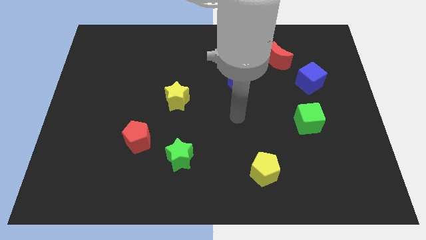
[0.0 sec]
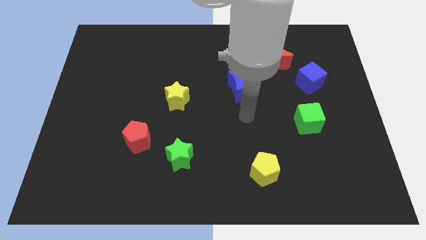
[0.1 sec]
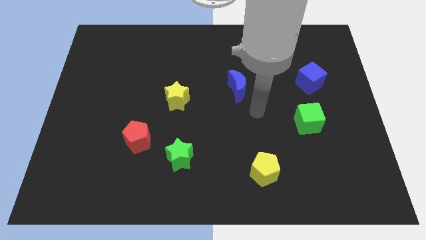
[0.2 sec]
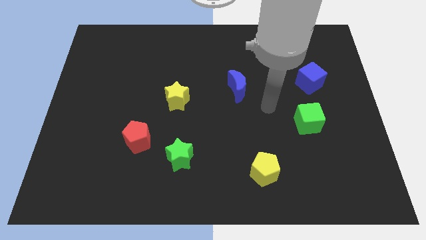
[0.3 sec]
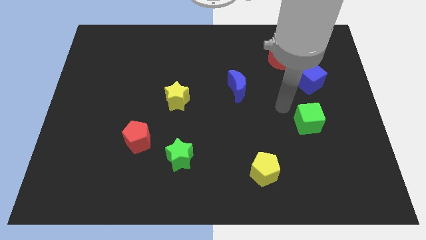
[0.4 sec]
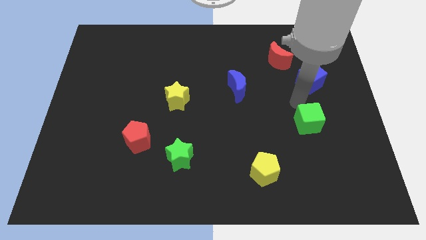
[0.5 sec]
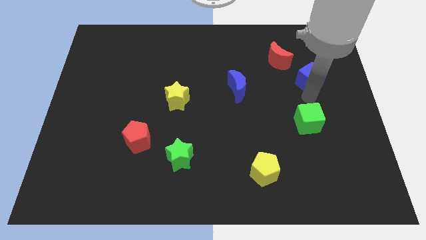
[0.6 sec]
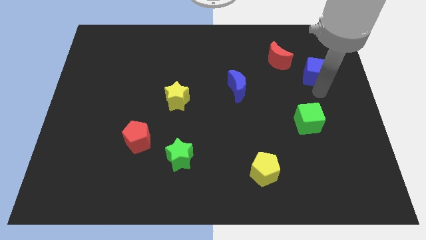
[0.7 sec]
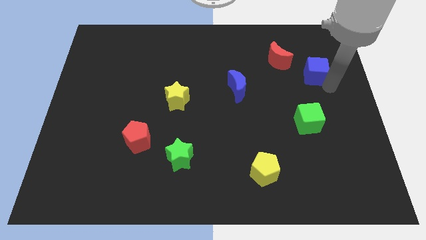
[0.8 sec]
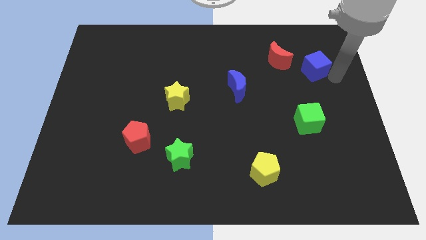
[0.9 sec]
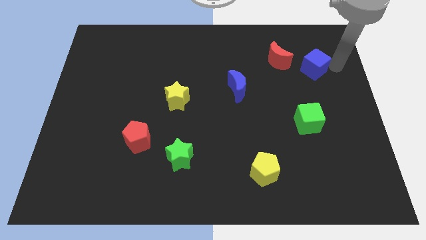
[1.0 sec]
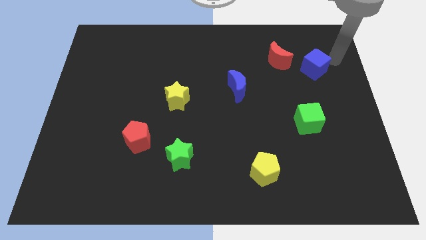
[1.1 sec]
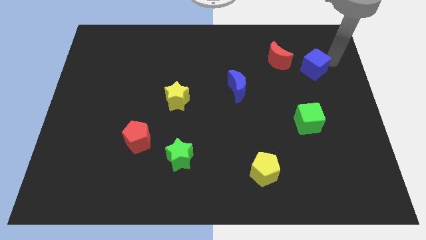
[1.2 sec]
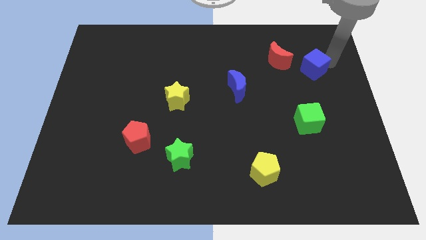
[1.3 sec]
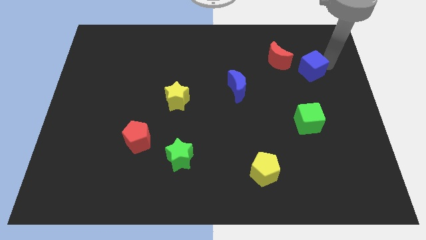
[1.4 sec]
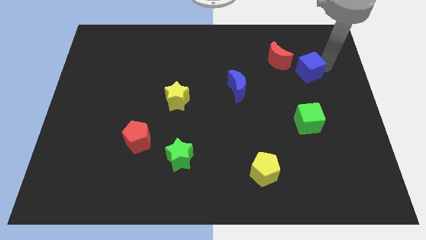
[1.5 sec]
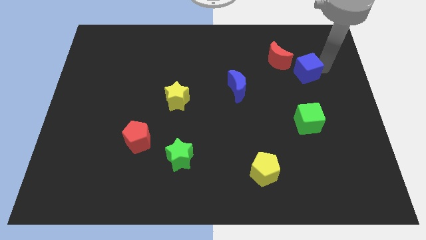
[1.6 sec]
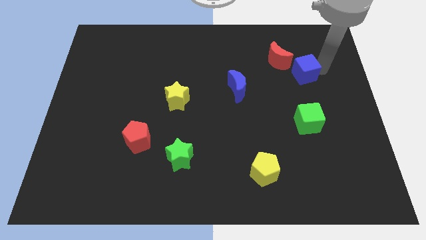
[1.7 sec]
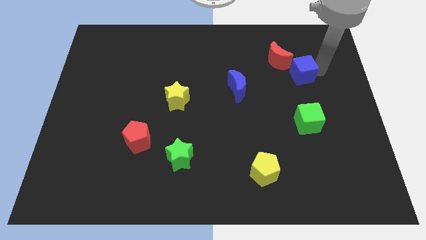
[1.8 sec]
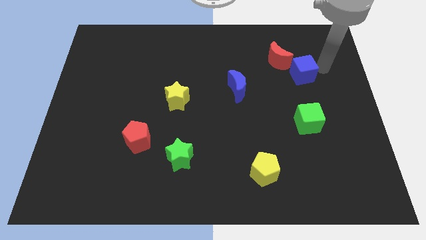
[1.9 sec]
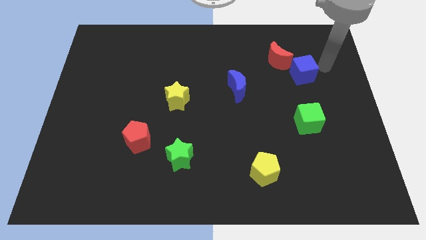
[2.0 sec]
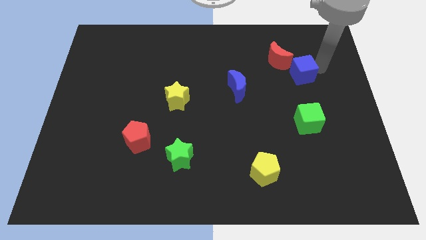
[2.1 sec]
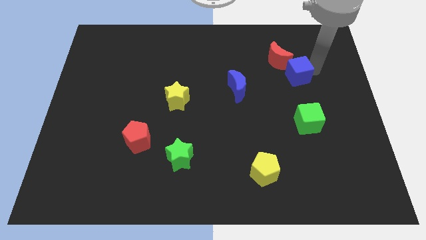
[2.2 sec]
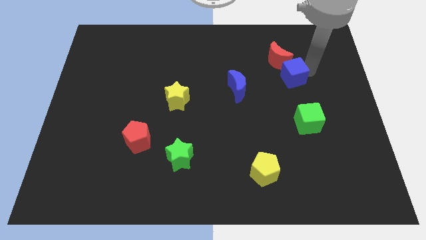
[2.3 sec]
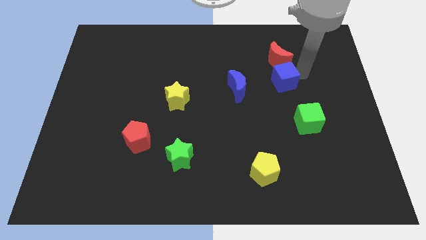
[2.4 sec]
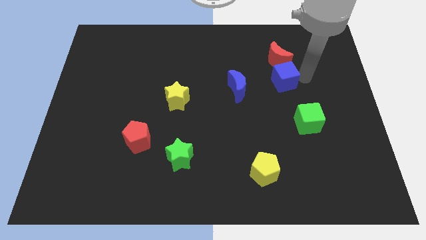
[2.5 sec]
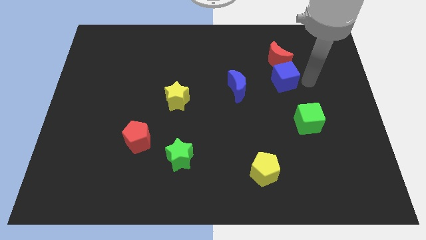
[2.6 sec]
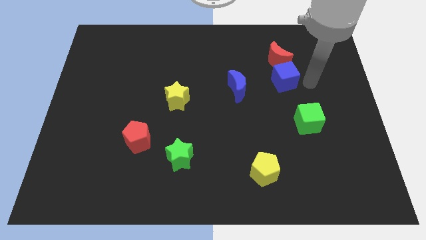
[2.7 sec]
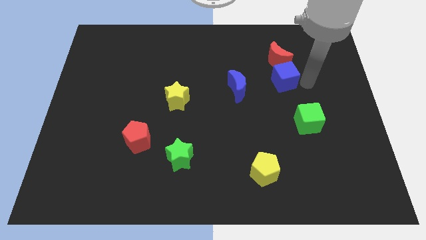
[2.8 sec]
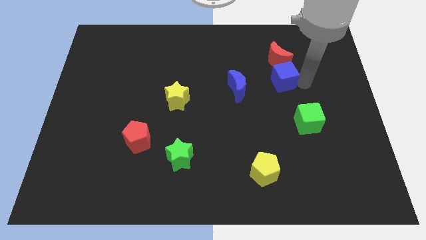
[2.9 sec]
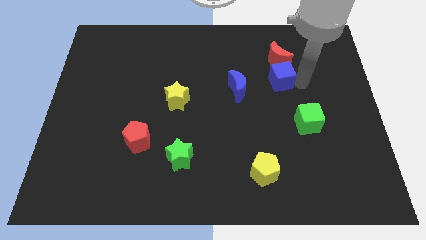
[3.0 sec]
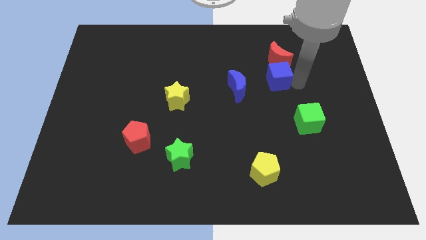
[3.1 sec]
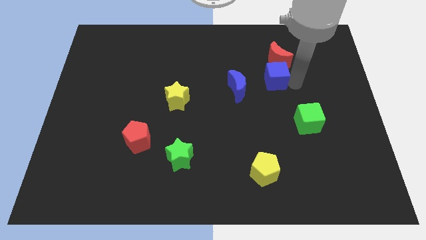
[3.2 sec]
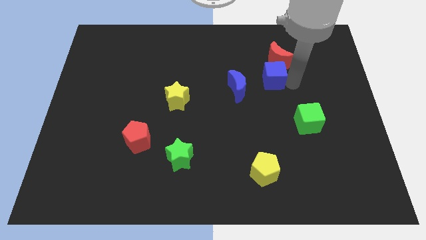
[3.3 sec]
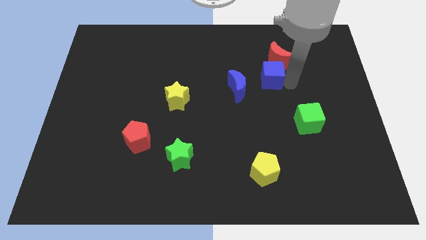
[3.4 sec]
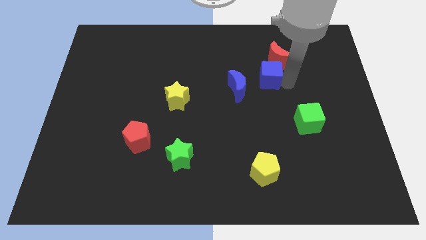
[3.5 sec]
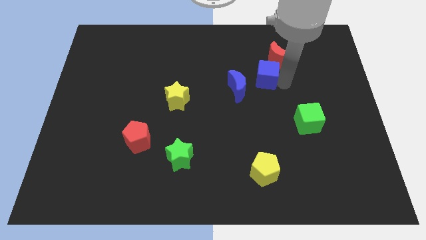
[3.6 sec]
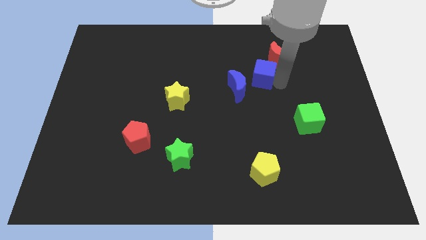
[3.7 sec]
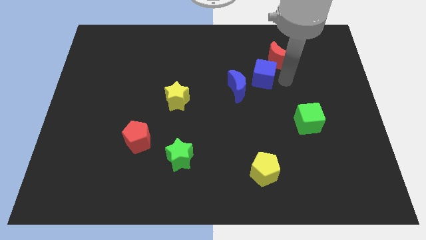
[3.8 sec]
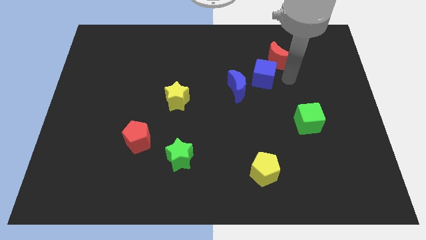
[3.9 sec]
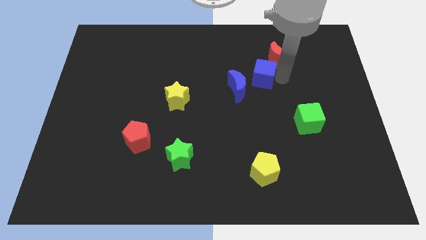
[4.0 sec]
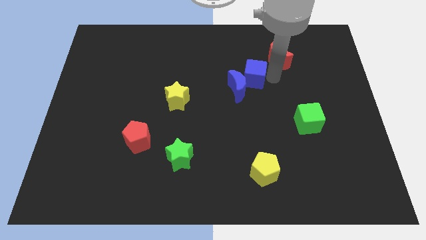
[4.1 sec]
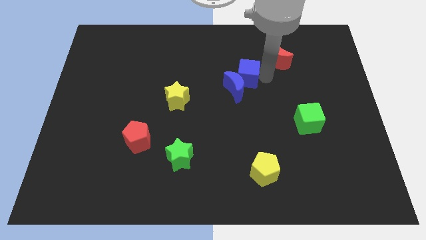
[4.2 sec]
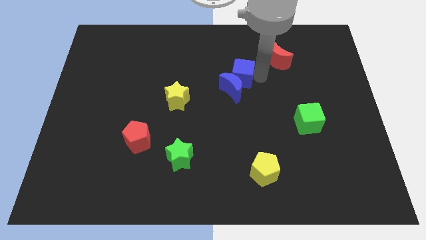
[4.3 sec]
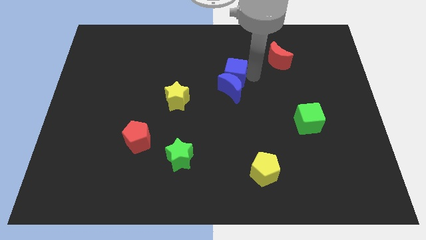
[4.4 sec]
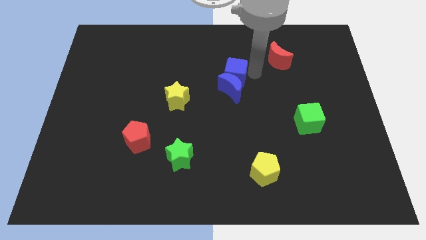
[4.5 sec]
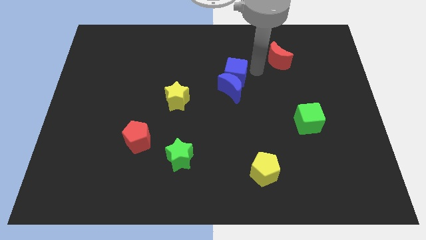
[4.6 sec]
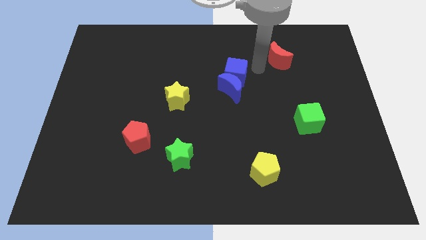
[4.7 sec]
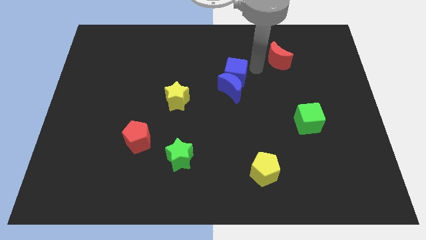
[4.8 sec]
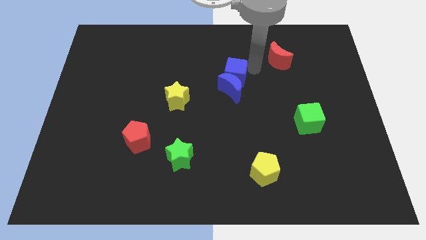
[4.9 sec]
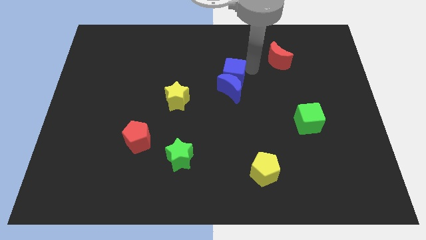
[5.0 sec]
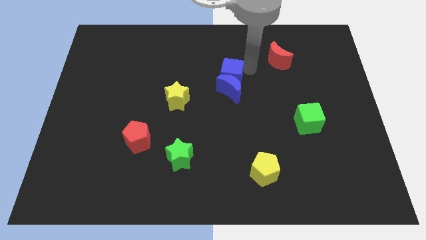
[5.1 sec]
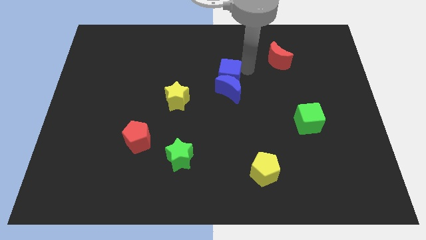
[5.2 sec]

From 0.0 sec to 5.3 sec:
slide the blue cube to the left

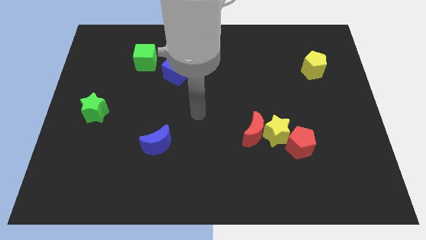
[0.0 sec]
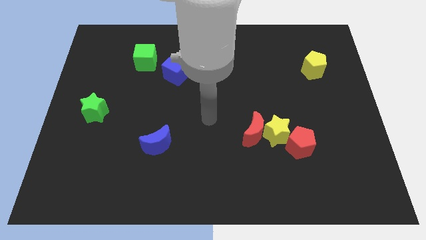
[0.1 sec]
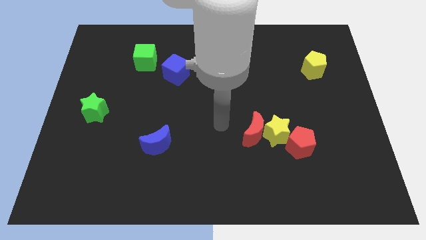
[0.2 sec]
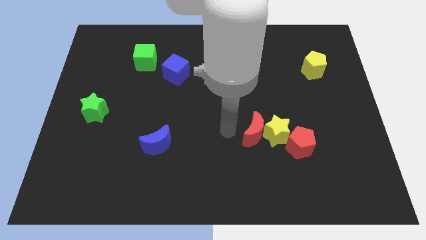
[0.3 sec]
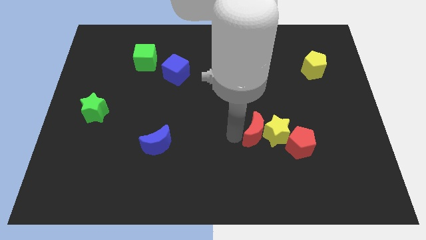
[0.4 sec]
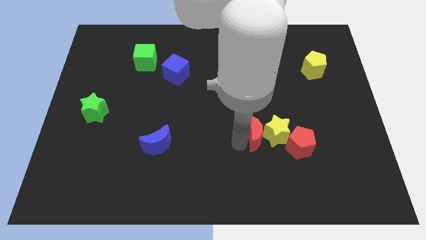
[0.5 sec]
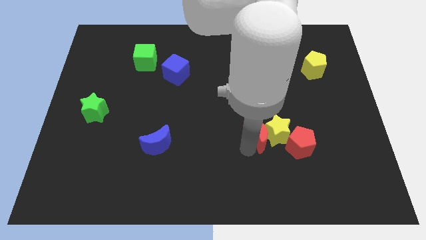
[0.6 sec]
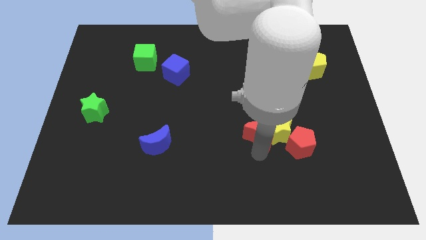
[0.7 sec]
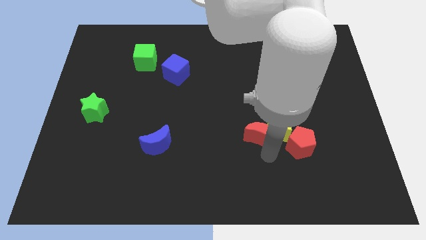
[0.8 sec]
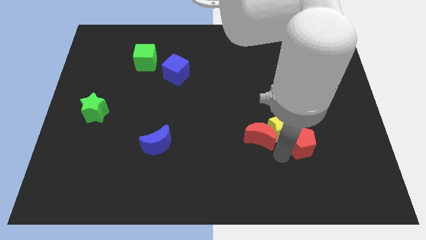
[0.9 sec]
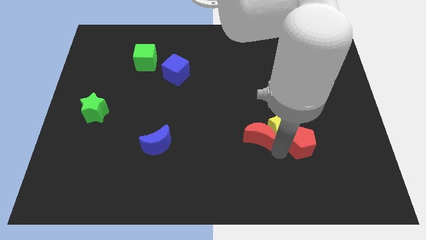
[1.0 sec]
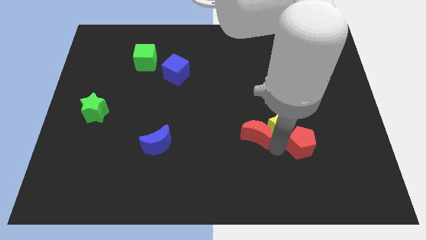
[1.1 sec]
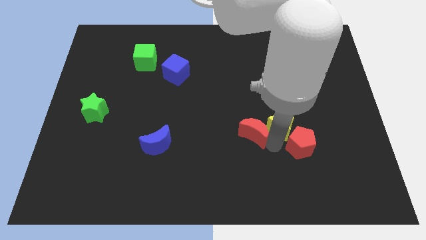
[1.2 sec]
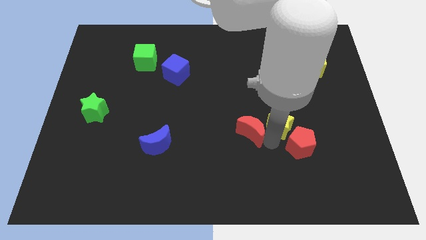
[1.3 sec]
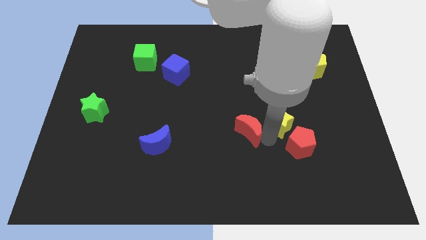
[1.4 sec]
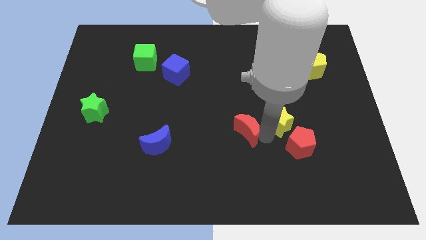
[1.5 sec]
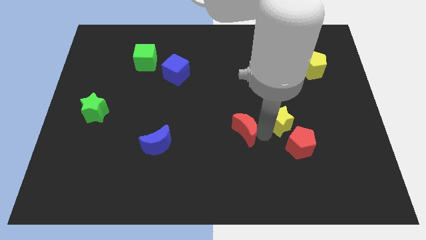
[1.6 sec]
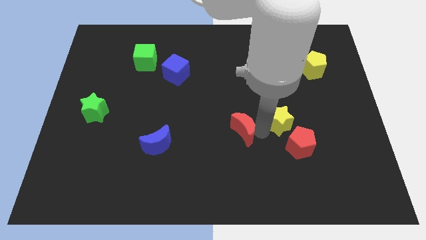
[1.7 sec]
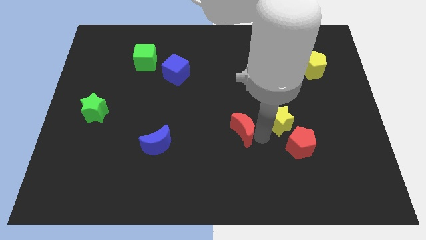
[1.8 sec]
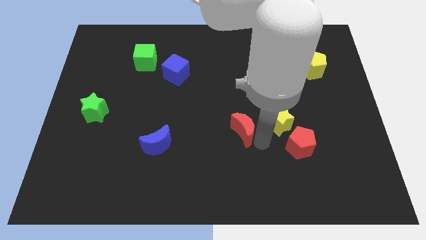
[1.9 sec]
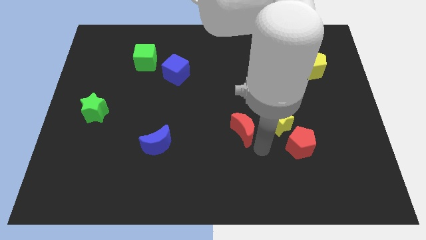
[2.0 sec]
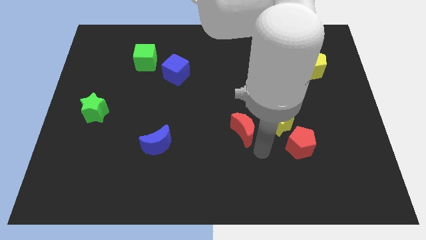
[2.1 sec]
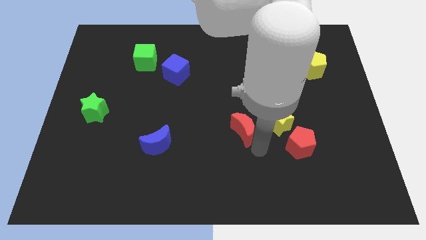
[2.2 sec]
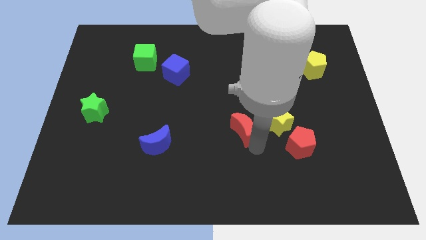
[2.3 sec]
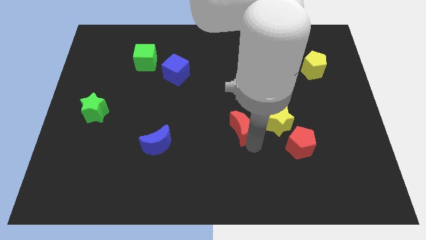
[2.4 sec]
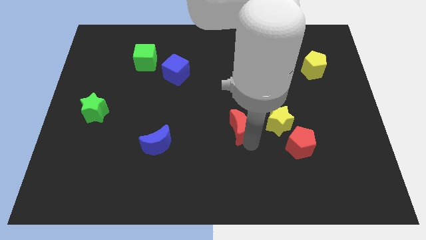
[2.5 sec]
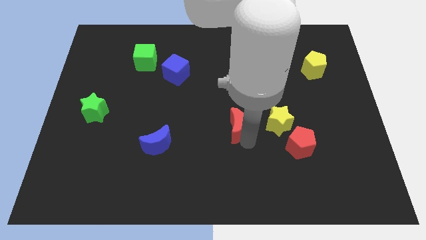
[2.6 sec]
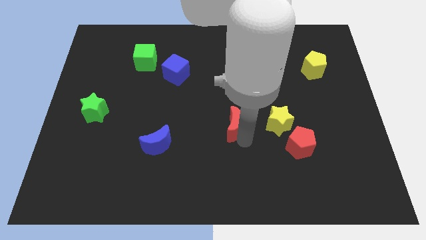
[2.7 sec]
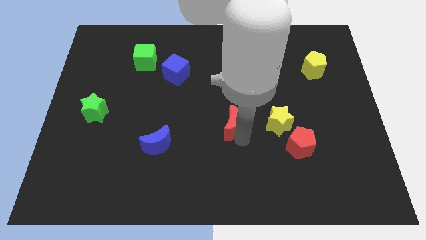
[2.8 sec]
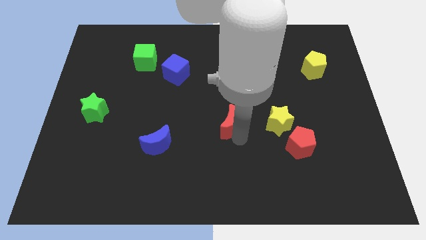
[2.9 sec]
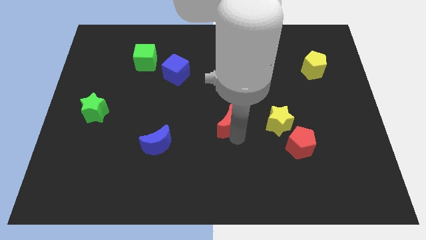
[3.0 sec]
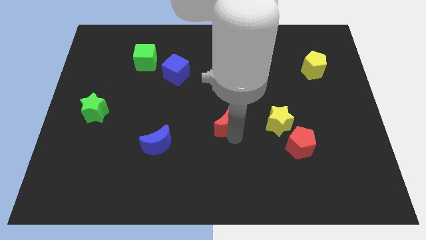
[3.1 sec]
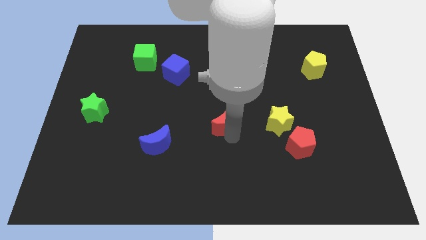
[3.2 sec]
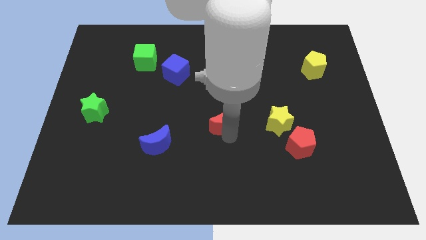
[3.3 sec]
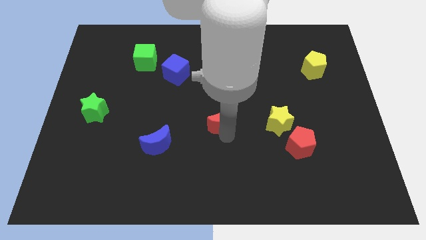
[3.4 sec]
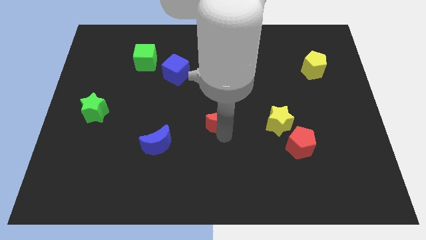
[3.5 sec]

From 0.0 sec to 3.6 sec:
slightly move the red moon up and to the left diagonally
